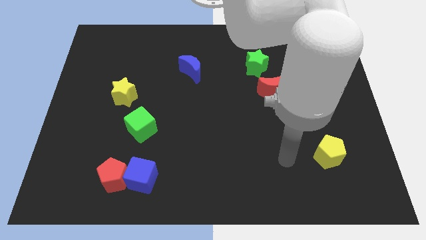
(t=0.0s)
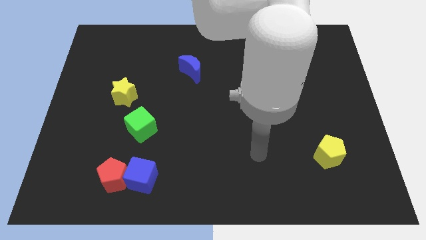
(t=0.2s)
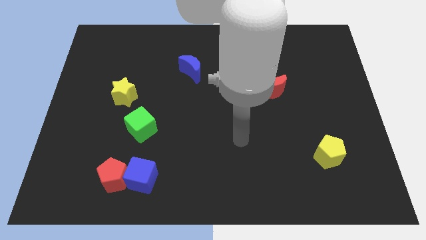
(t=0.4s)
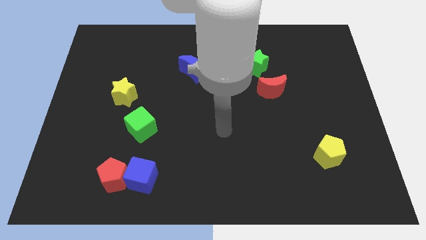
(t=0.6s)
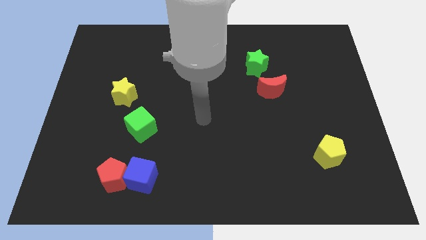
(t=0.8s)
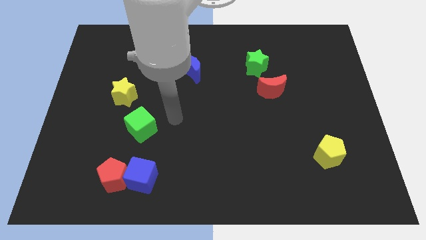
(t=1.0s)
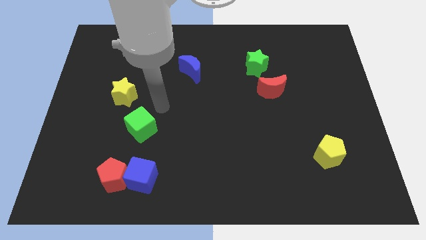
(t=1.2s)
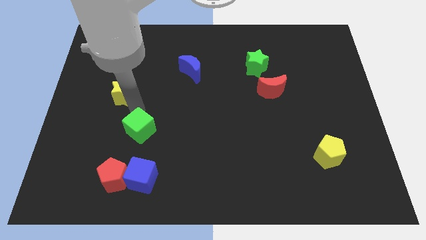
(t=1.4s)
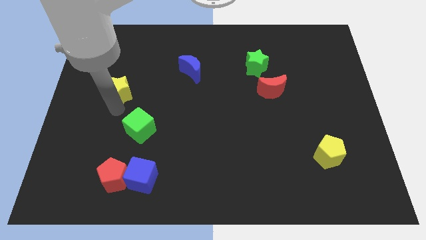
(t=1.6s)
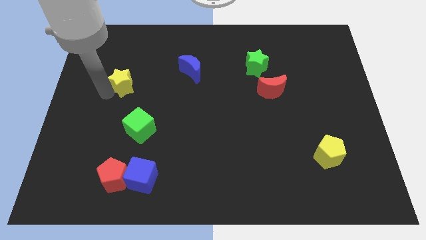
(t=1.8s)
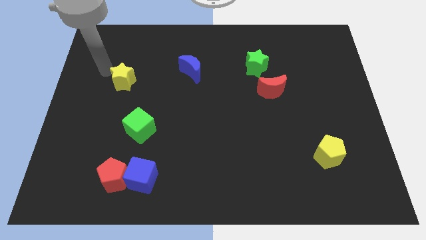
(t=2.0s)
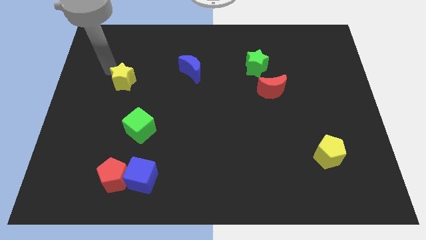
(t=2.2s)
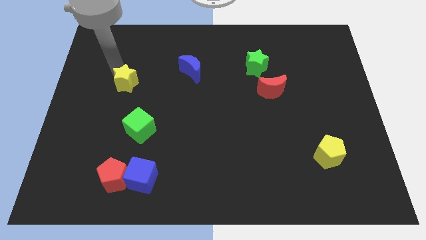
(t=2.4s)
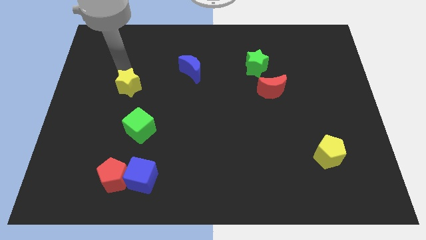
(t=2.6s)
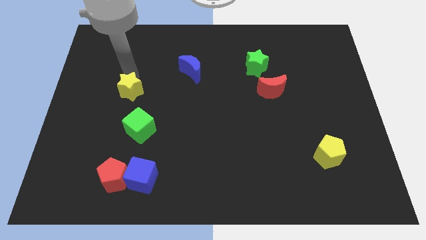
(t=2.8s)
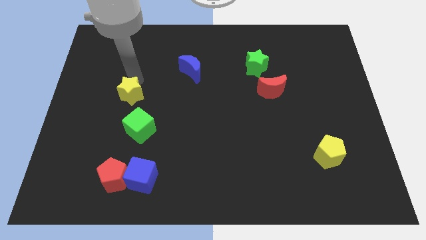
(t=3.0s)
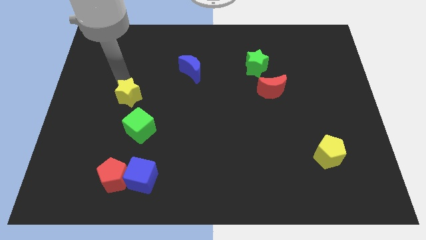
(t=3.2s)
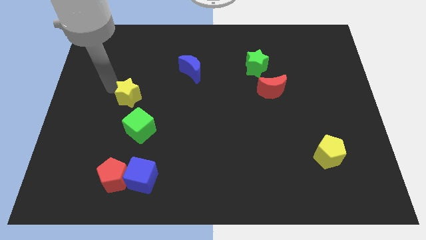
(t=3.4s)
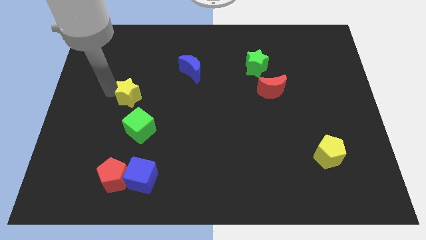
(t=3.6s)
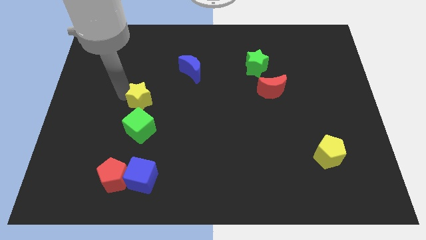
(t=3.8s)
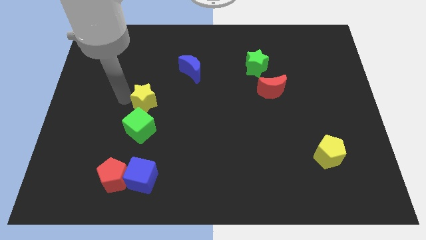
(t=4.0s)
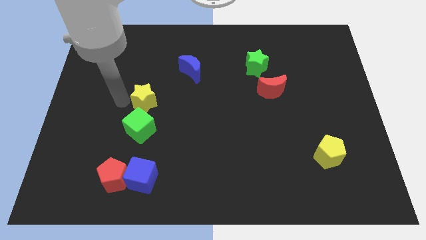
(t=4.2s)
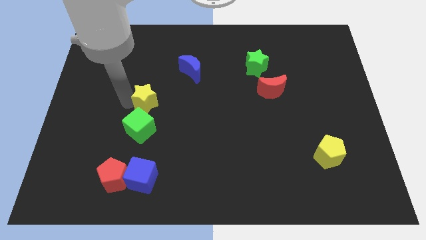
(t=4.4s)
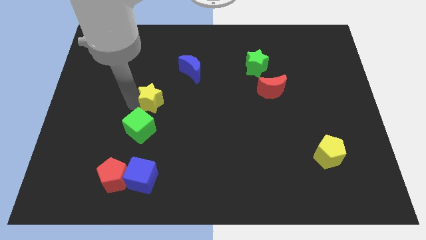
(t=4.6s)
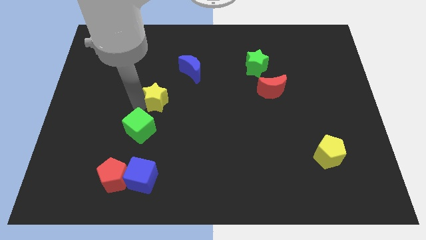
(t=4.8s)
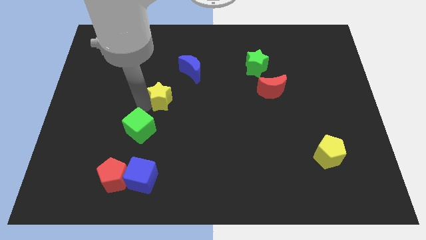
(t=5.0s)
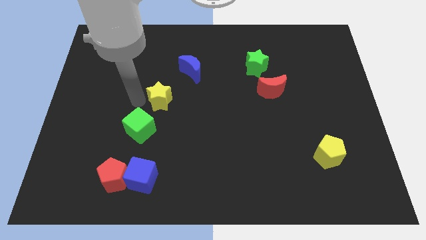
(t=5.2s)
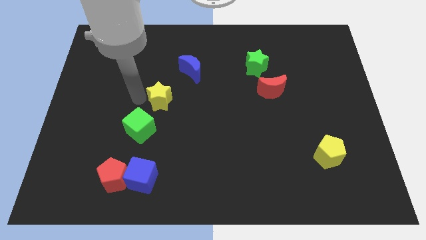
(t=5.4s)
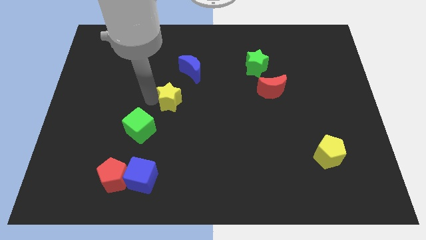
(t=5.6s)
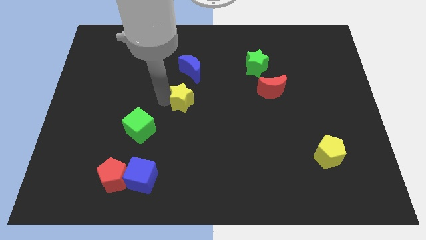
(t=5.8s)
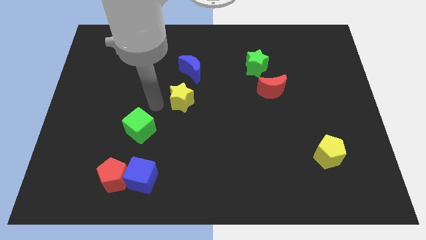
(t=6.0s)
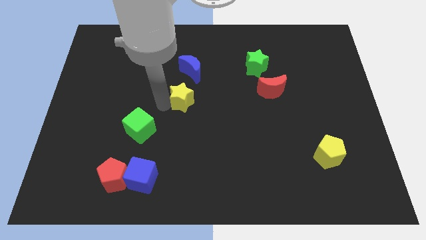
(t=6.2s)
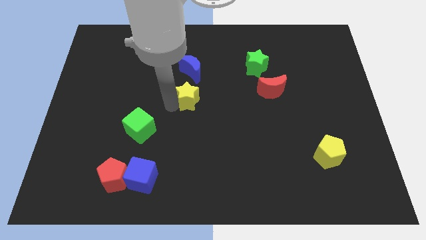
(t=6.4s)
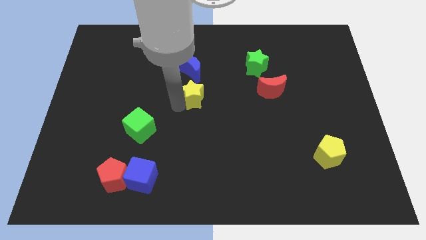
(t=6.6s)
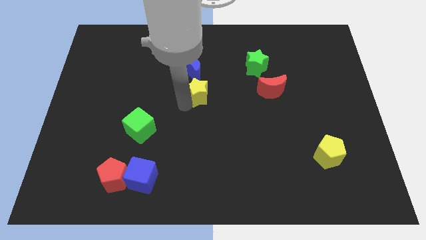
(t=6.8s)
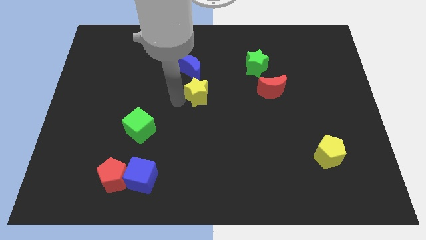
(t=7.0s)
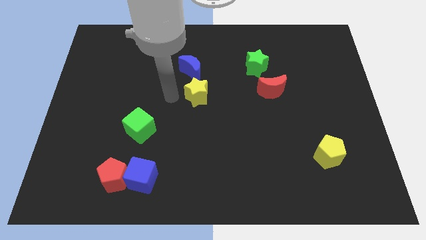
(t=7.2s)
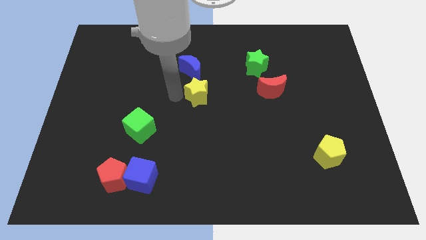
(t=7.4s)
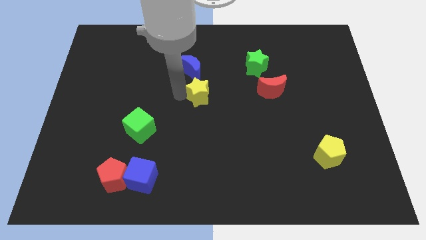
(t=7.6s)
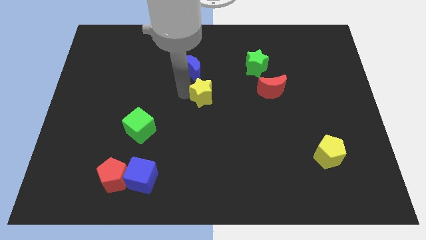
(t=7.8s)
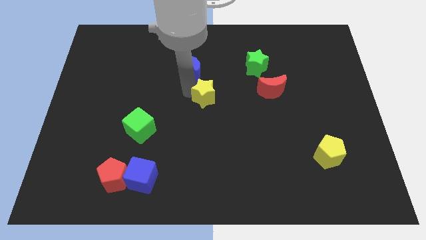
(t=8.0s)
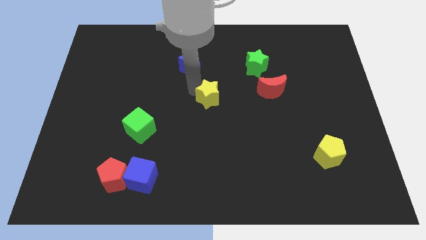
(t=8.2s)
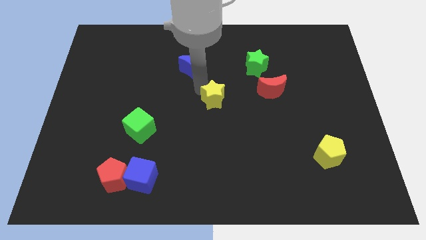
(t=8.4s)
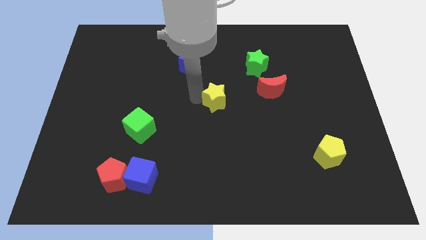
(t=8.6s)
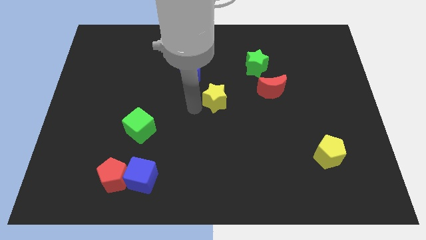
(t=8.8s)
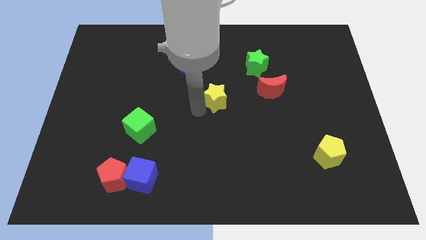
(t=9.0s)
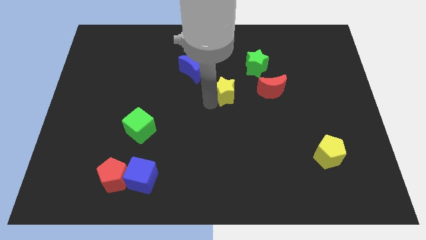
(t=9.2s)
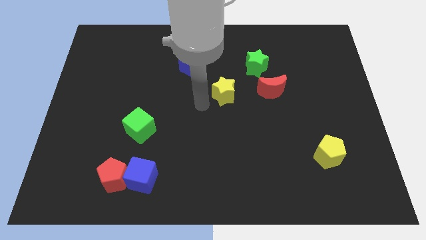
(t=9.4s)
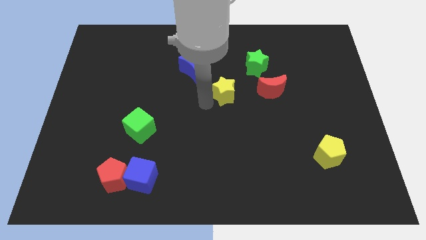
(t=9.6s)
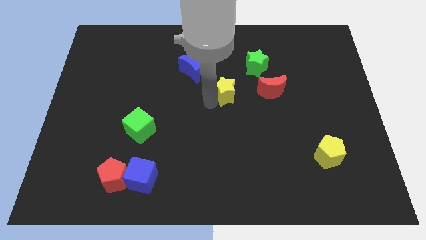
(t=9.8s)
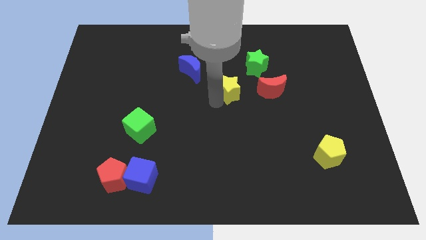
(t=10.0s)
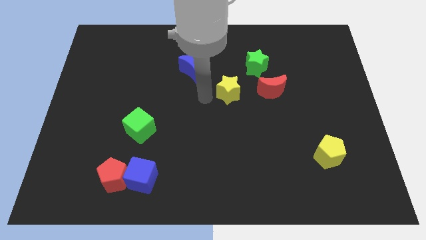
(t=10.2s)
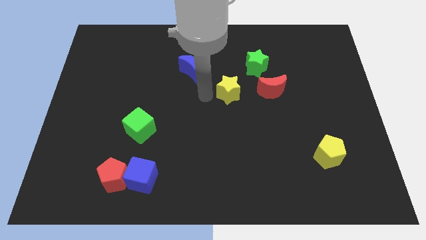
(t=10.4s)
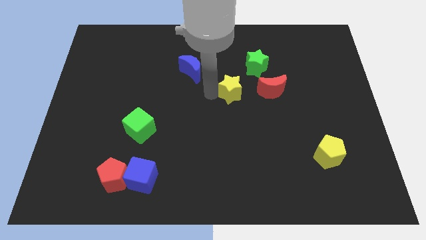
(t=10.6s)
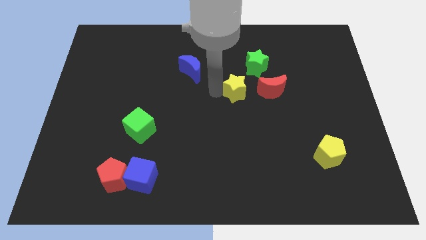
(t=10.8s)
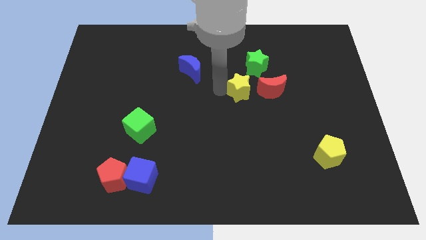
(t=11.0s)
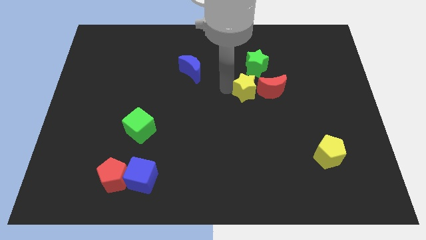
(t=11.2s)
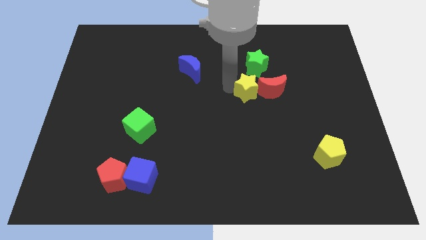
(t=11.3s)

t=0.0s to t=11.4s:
push the yellow star to the red moon
